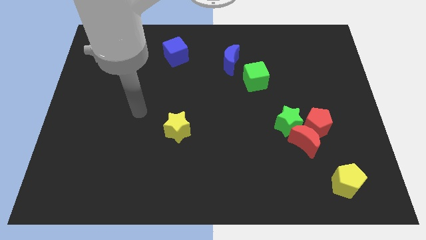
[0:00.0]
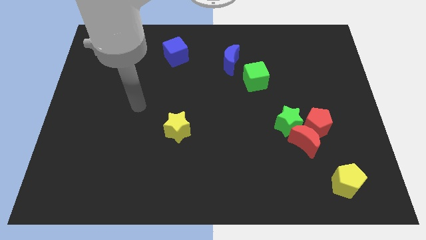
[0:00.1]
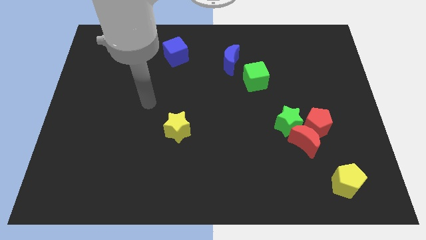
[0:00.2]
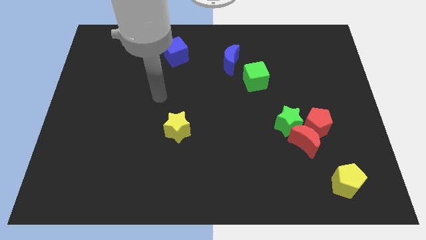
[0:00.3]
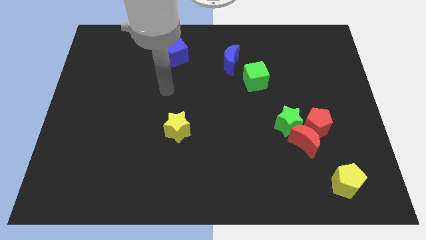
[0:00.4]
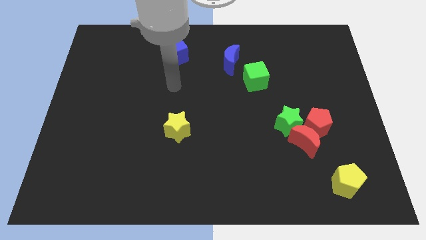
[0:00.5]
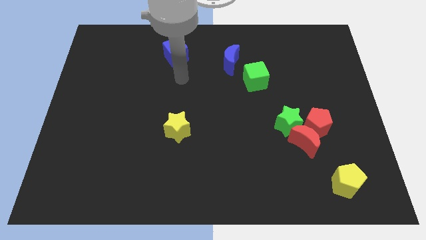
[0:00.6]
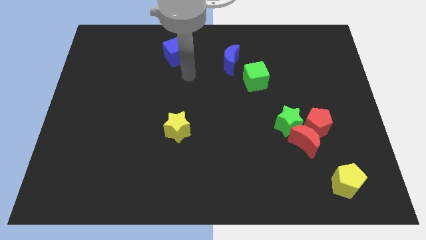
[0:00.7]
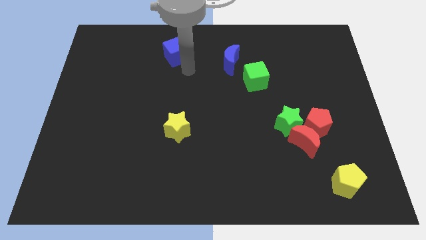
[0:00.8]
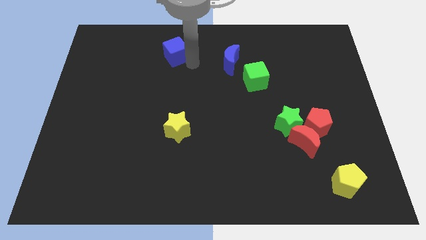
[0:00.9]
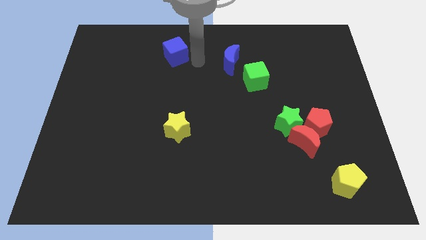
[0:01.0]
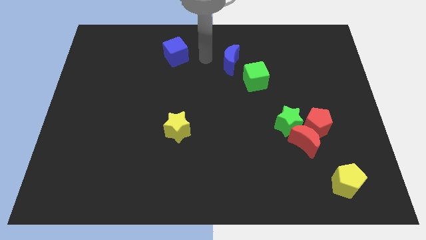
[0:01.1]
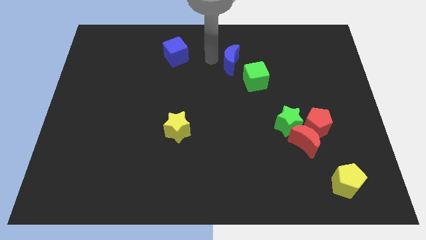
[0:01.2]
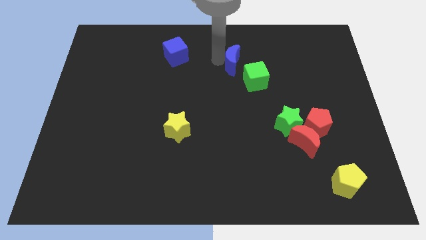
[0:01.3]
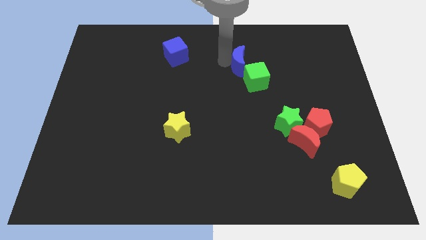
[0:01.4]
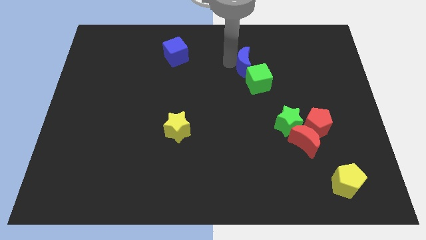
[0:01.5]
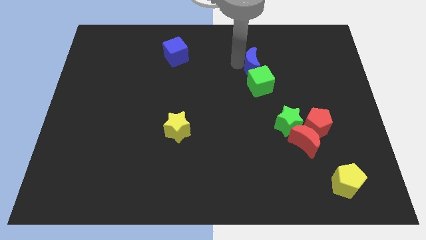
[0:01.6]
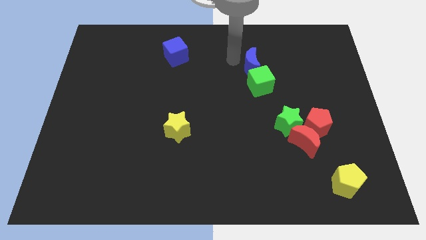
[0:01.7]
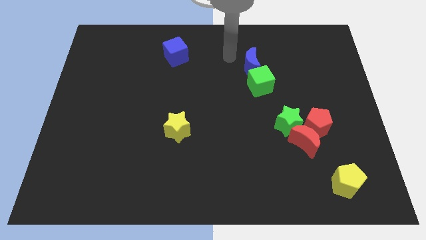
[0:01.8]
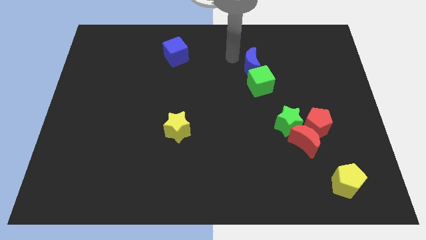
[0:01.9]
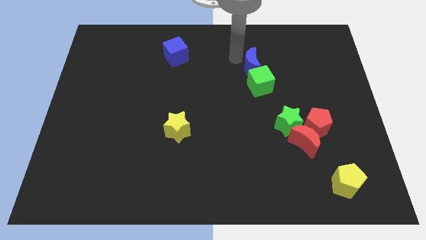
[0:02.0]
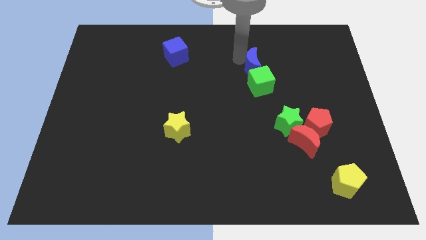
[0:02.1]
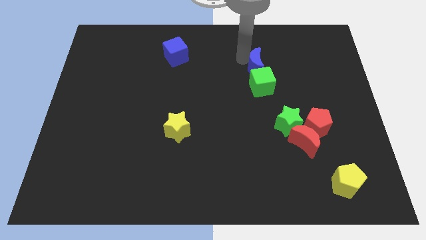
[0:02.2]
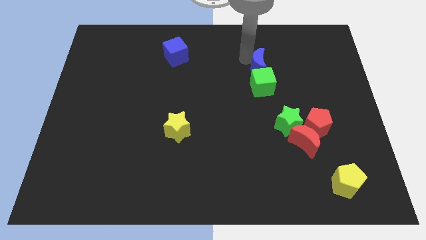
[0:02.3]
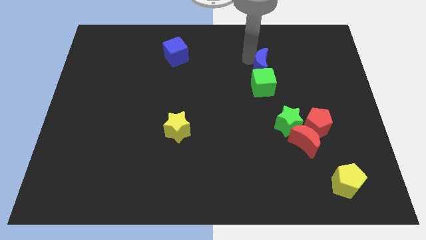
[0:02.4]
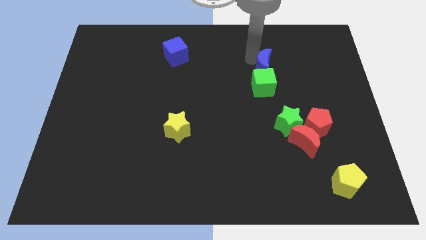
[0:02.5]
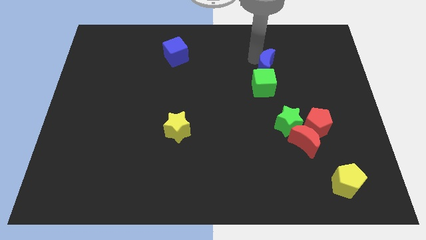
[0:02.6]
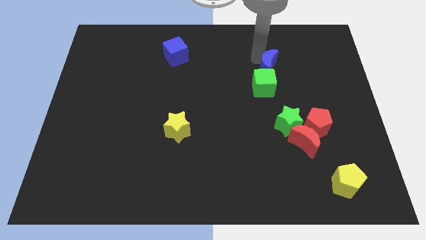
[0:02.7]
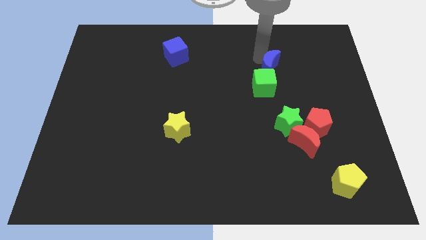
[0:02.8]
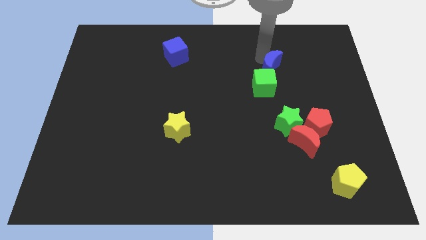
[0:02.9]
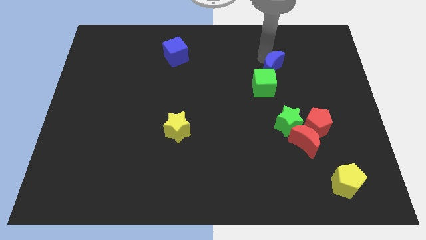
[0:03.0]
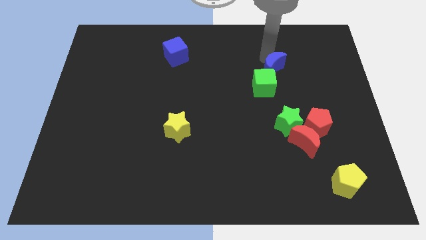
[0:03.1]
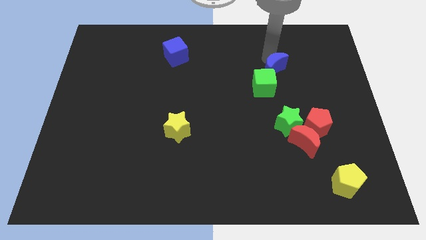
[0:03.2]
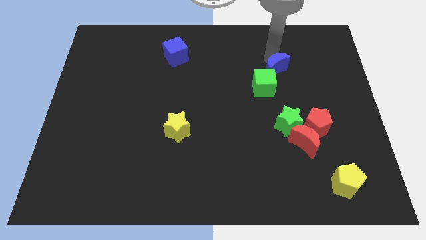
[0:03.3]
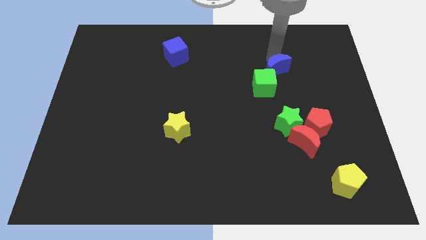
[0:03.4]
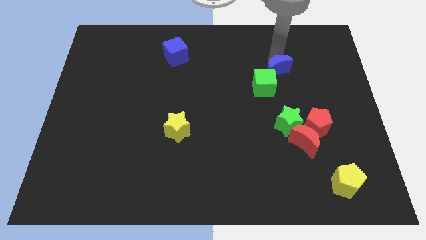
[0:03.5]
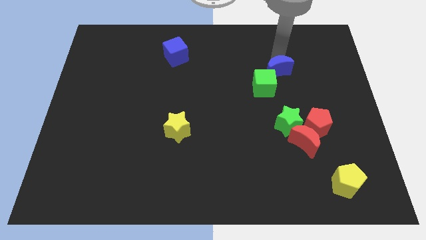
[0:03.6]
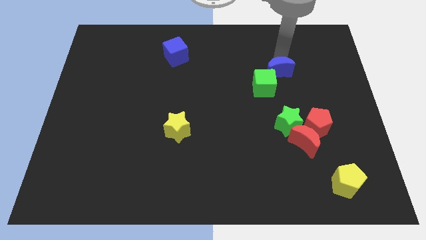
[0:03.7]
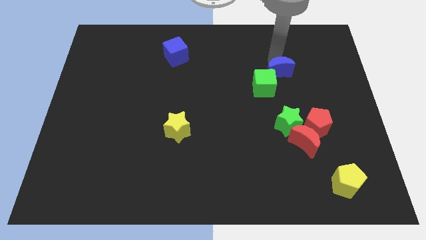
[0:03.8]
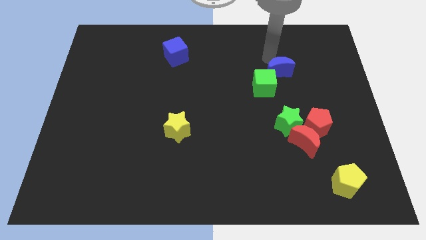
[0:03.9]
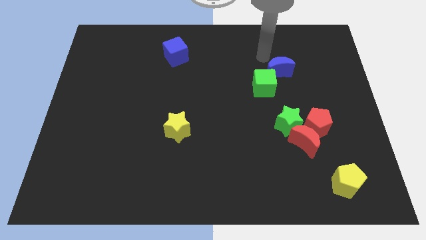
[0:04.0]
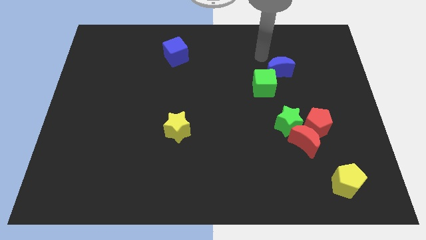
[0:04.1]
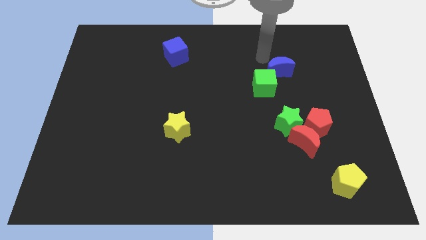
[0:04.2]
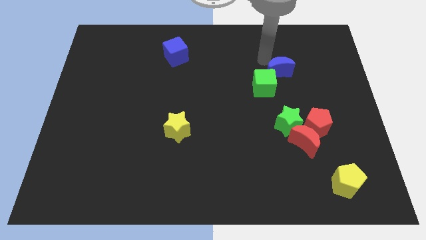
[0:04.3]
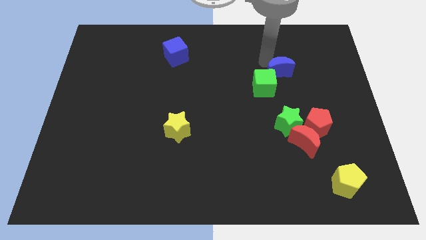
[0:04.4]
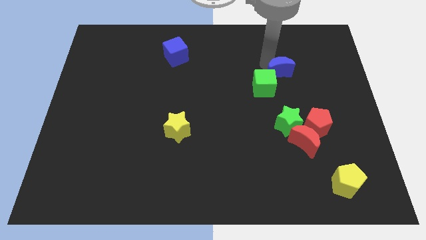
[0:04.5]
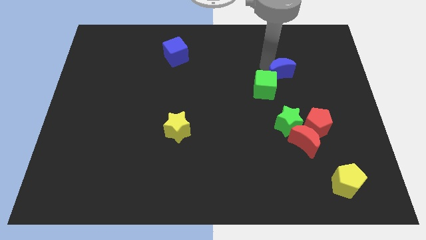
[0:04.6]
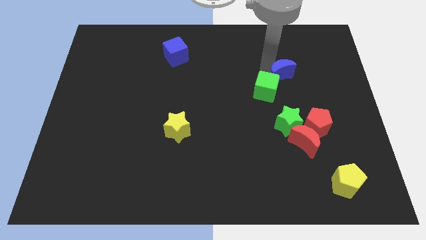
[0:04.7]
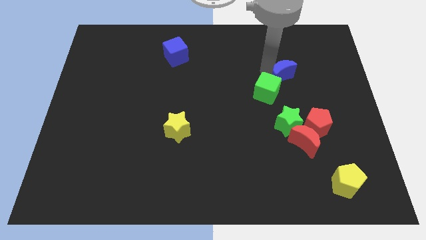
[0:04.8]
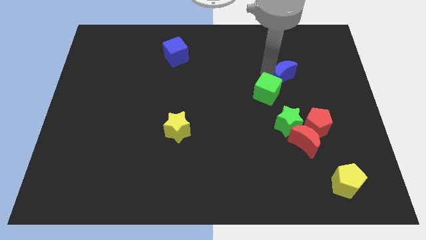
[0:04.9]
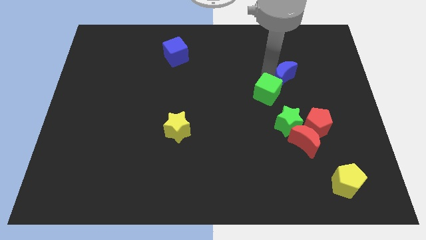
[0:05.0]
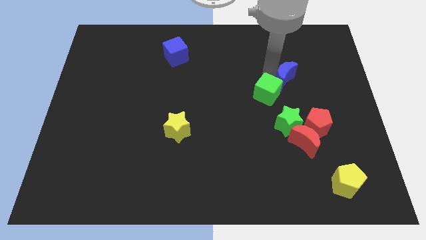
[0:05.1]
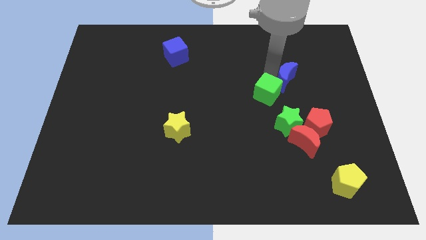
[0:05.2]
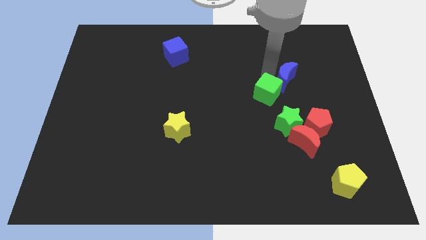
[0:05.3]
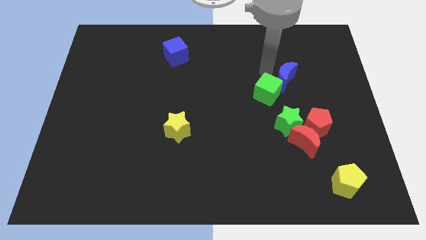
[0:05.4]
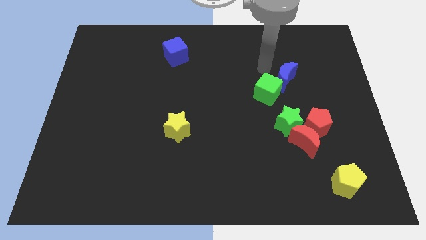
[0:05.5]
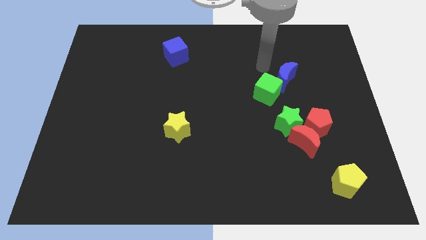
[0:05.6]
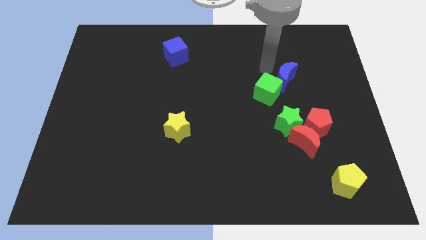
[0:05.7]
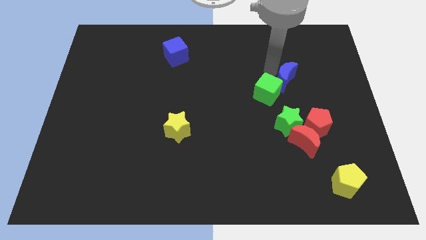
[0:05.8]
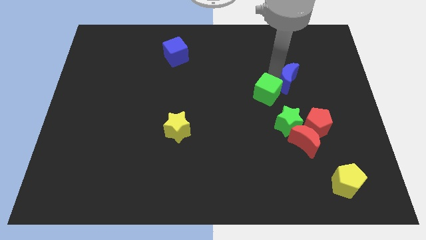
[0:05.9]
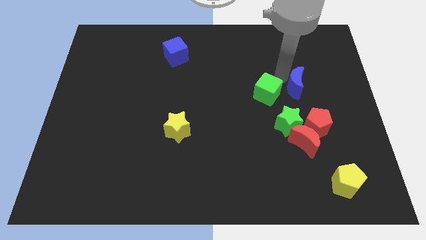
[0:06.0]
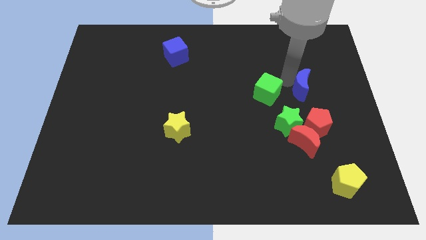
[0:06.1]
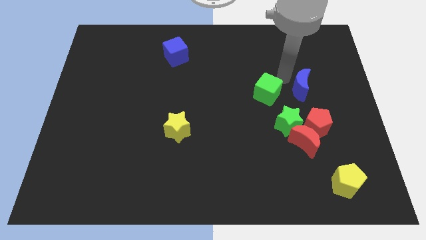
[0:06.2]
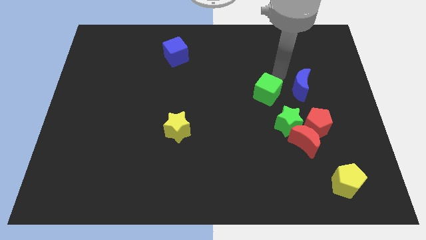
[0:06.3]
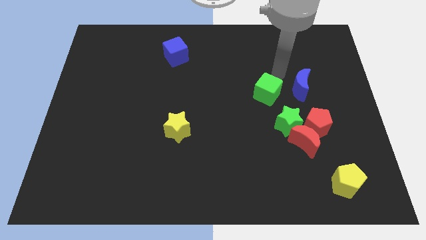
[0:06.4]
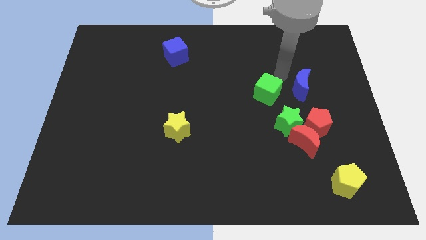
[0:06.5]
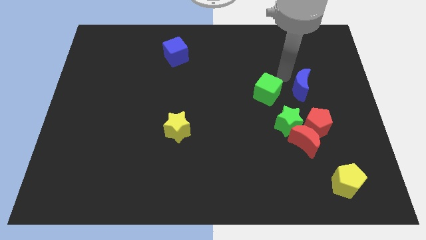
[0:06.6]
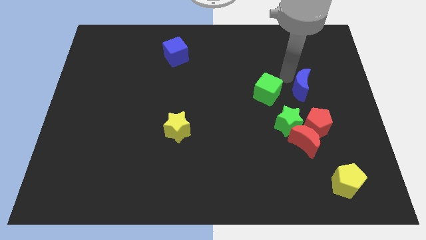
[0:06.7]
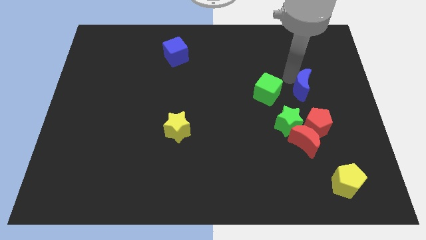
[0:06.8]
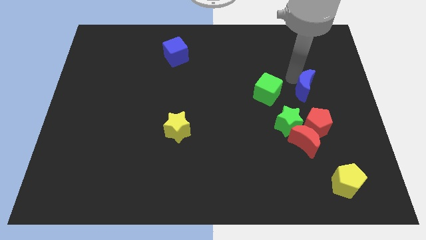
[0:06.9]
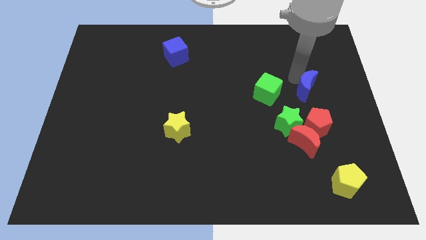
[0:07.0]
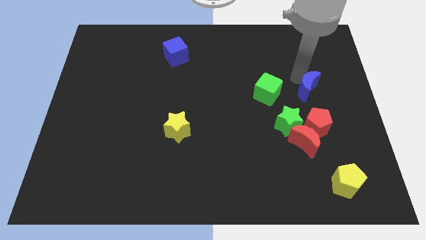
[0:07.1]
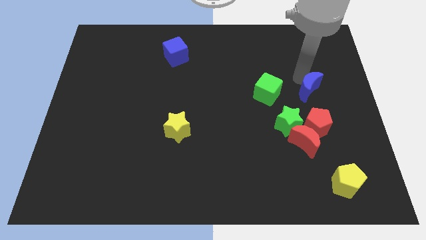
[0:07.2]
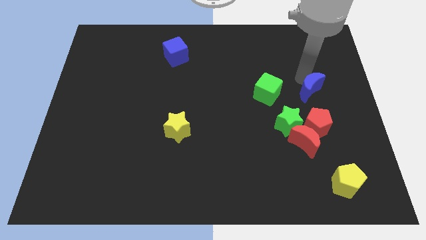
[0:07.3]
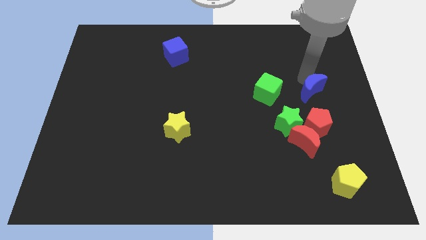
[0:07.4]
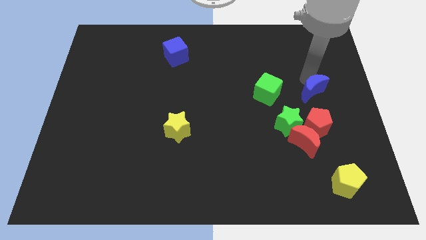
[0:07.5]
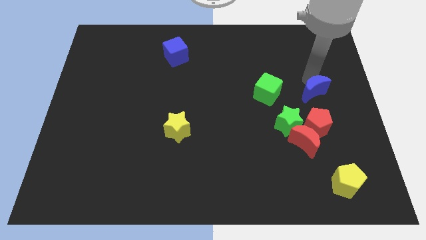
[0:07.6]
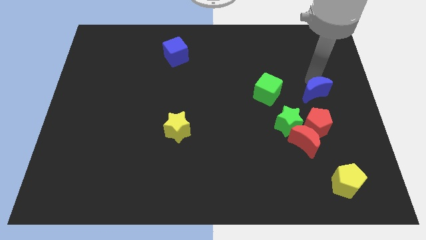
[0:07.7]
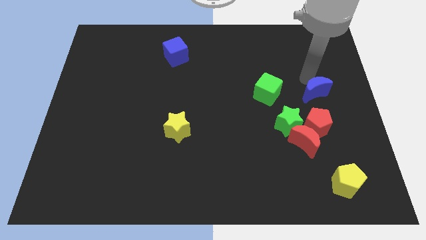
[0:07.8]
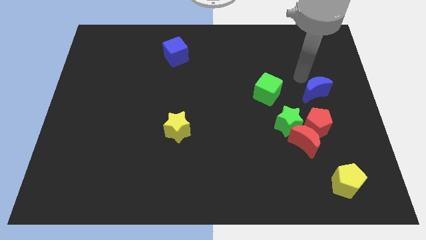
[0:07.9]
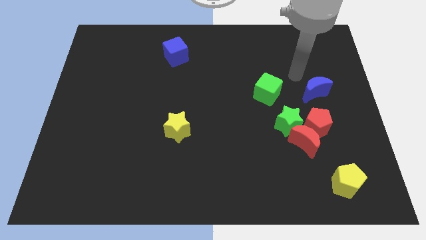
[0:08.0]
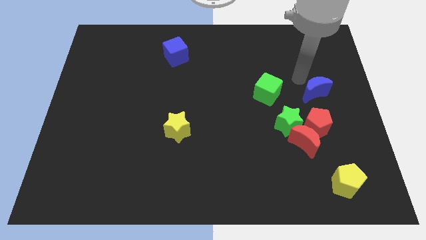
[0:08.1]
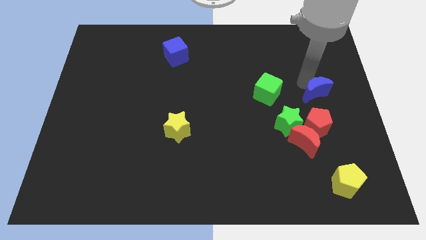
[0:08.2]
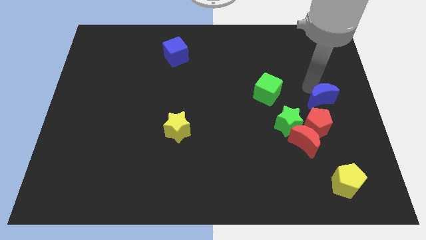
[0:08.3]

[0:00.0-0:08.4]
put the blue moon to the top right of the red pentagon
